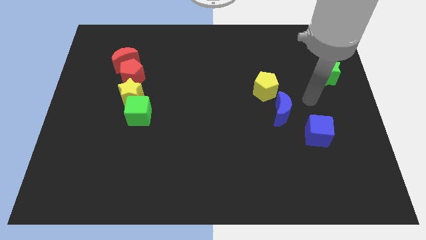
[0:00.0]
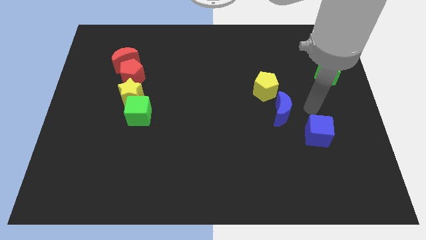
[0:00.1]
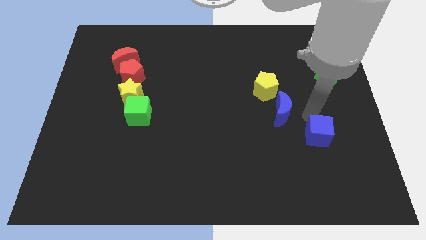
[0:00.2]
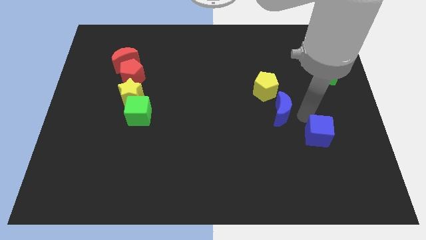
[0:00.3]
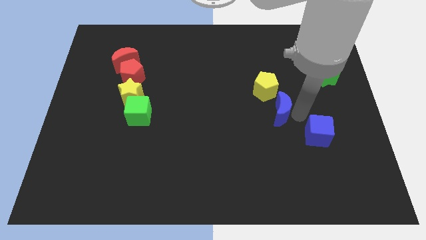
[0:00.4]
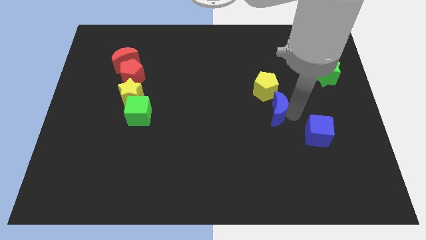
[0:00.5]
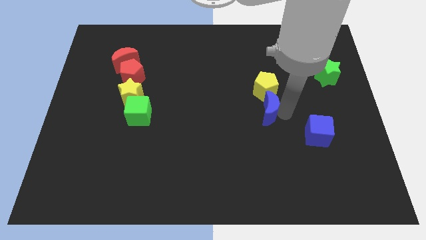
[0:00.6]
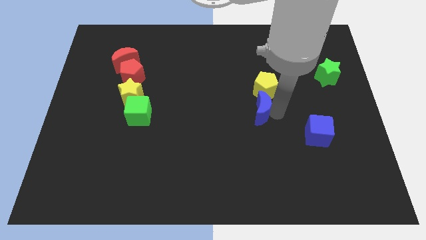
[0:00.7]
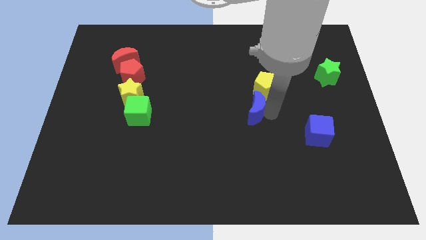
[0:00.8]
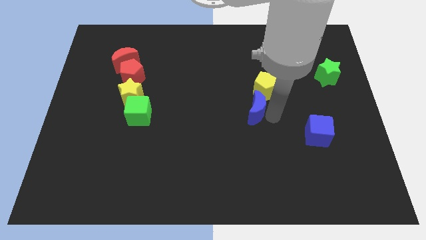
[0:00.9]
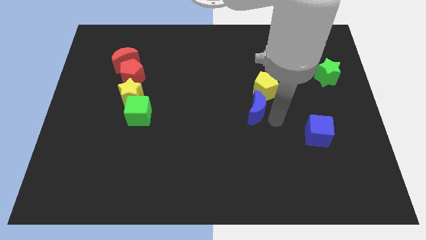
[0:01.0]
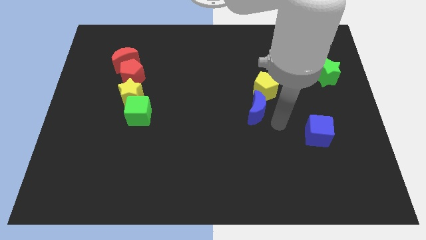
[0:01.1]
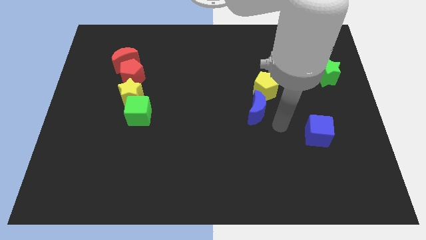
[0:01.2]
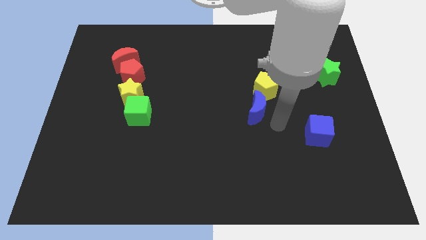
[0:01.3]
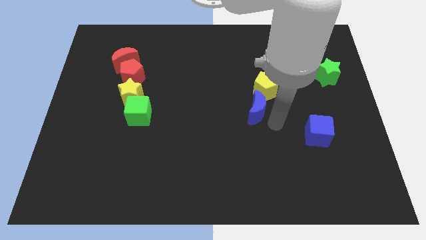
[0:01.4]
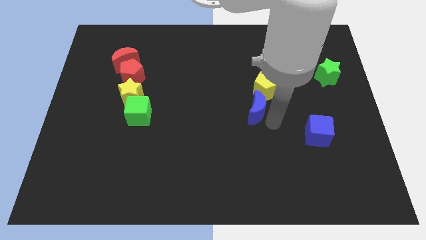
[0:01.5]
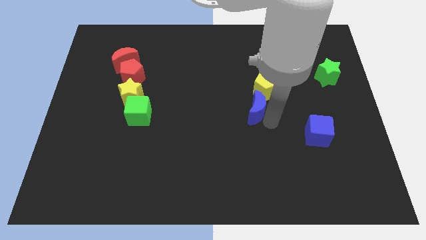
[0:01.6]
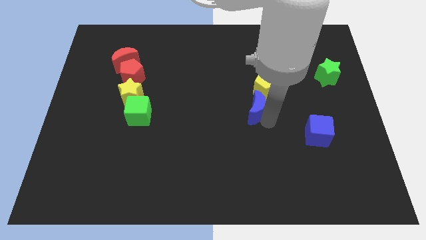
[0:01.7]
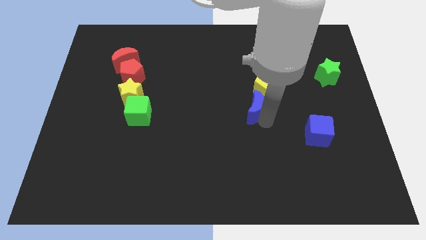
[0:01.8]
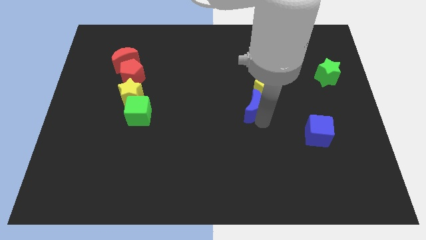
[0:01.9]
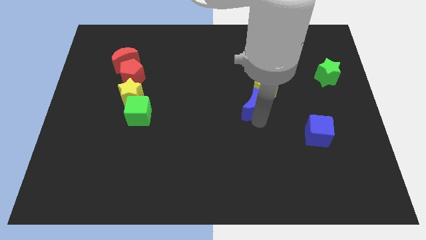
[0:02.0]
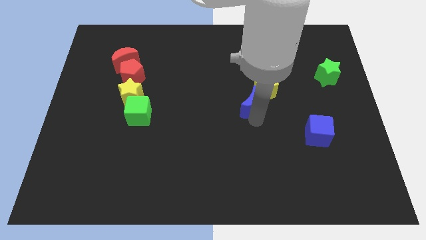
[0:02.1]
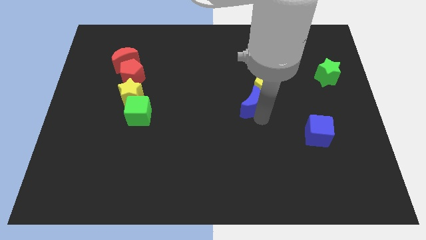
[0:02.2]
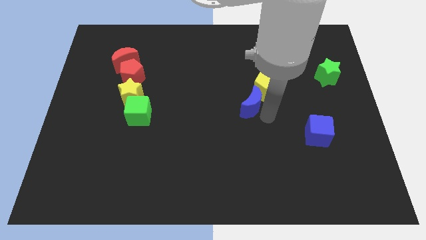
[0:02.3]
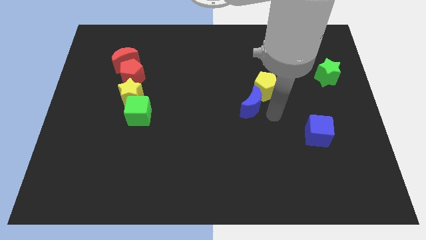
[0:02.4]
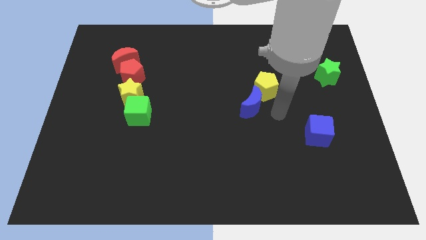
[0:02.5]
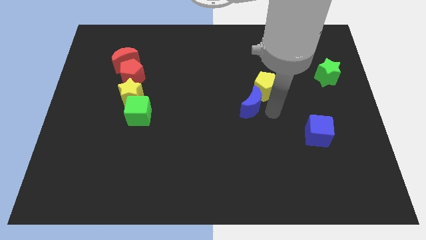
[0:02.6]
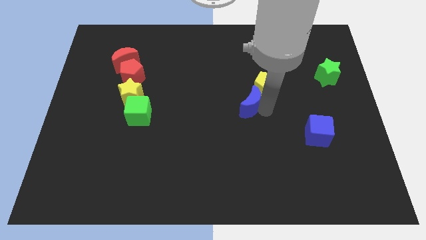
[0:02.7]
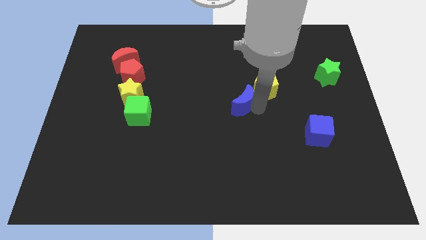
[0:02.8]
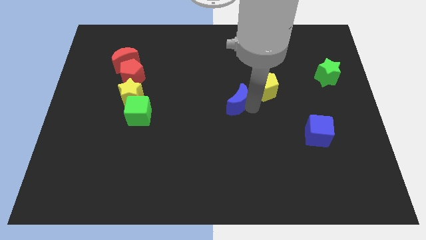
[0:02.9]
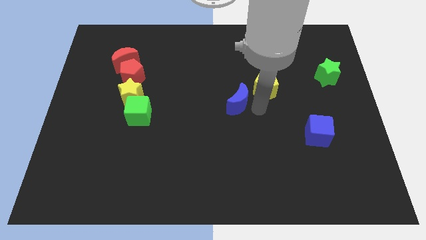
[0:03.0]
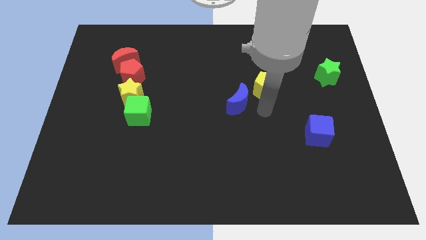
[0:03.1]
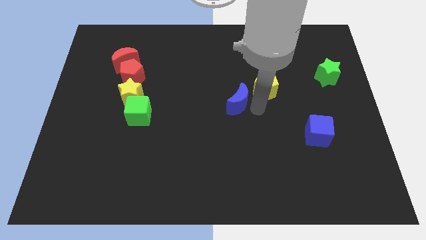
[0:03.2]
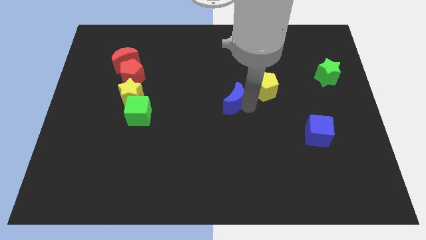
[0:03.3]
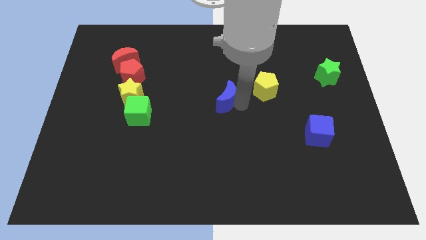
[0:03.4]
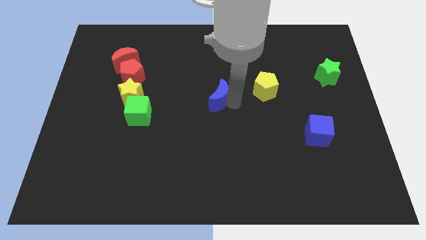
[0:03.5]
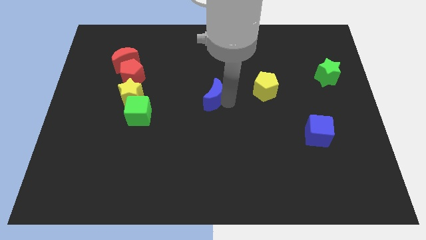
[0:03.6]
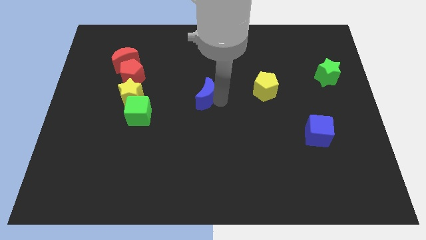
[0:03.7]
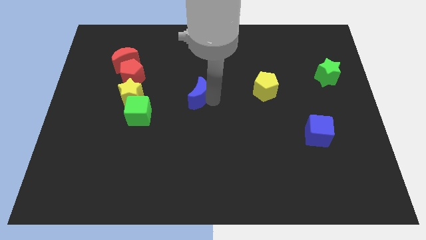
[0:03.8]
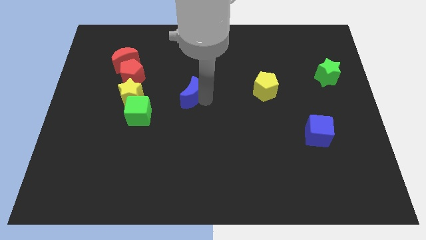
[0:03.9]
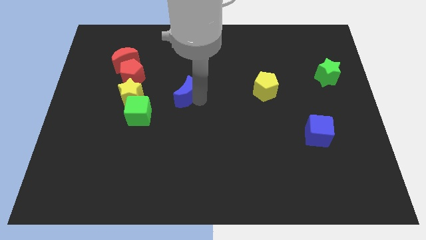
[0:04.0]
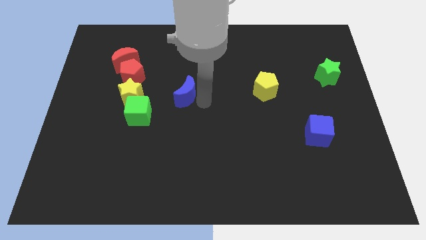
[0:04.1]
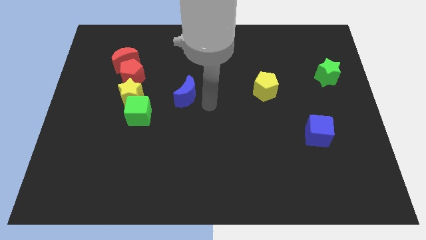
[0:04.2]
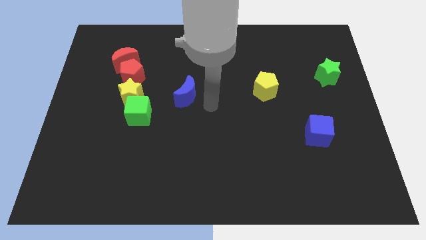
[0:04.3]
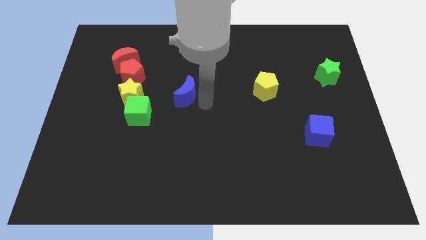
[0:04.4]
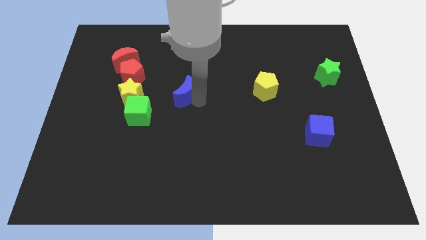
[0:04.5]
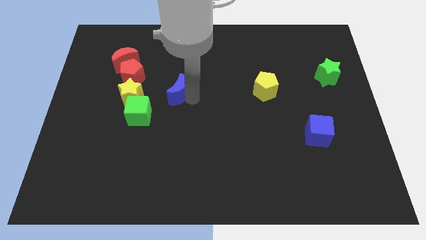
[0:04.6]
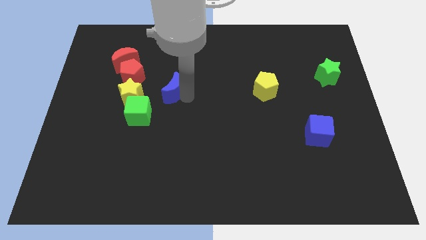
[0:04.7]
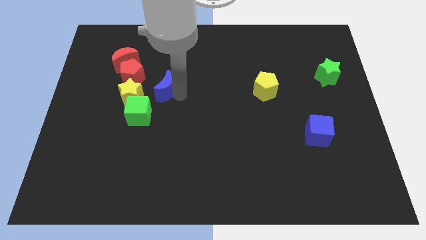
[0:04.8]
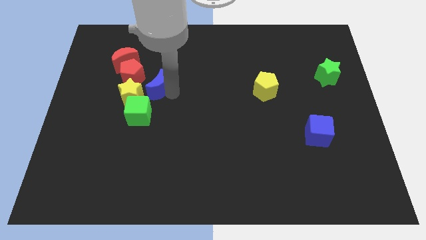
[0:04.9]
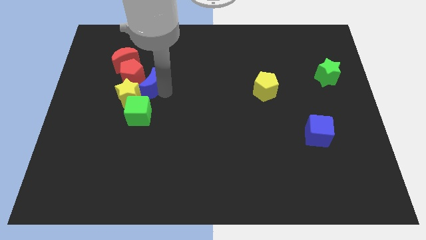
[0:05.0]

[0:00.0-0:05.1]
slide the blue moon to the bottom right side of the red moon
